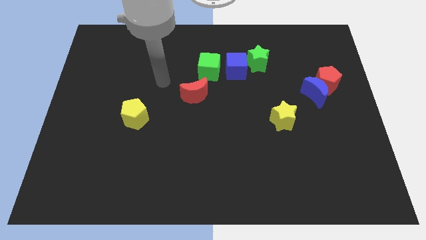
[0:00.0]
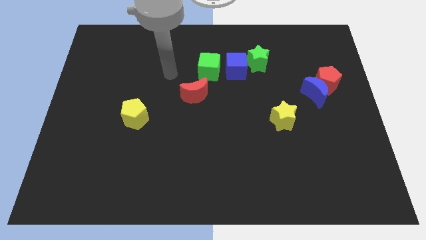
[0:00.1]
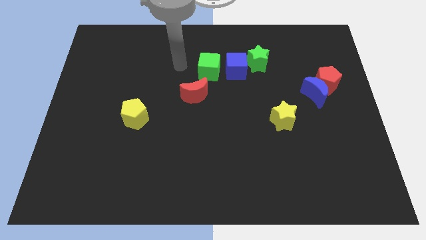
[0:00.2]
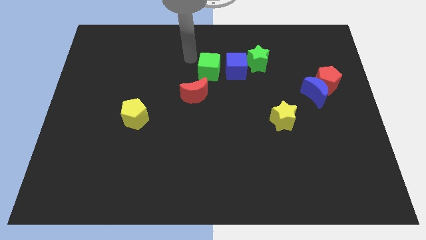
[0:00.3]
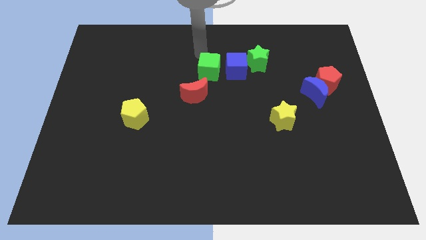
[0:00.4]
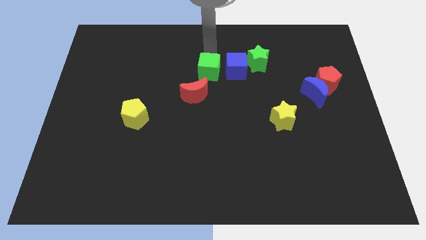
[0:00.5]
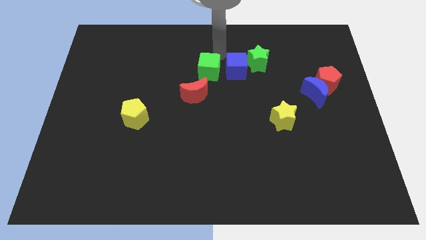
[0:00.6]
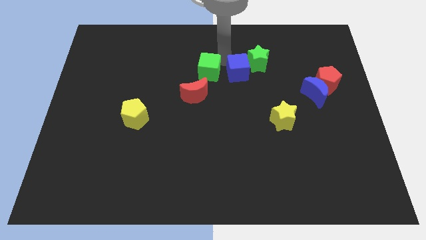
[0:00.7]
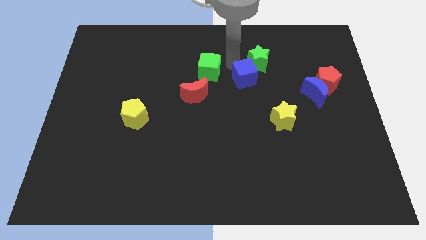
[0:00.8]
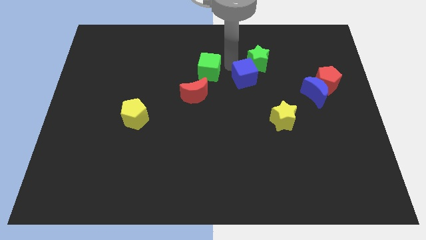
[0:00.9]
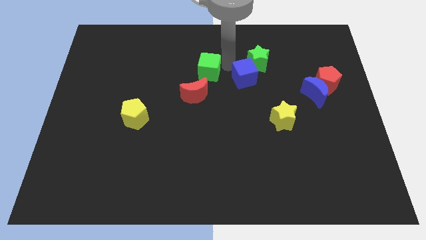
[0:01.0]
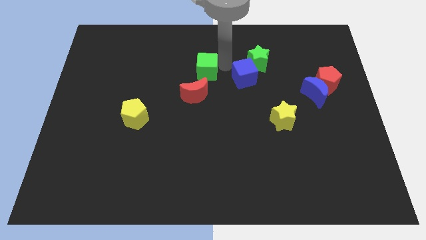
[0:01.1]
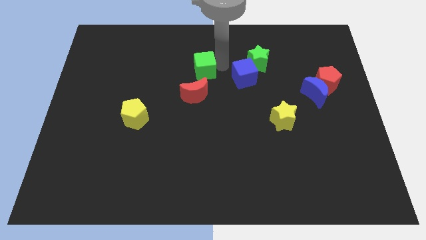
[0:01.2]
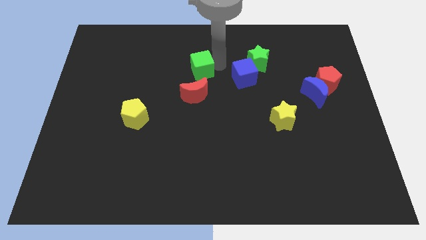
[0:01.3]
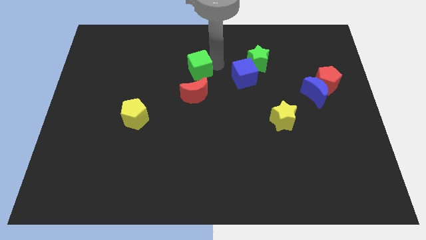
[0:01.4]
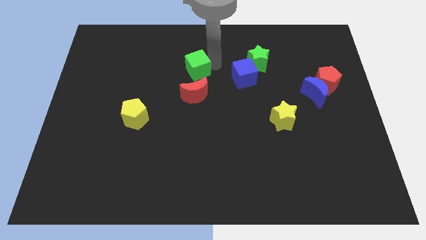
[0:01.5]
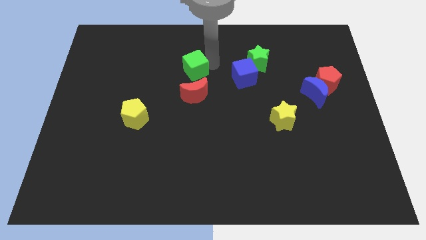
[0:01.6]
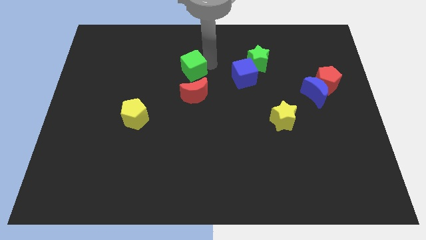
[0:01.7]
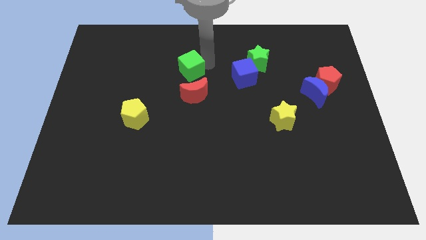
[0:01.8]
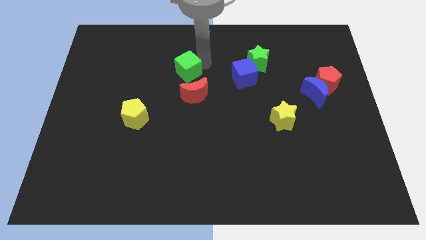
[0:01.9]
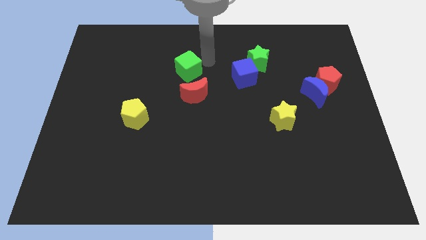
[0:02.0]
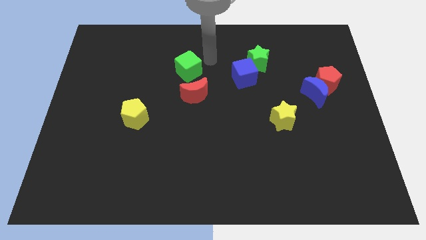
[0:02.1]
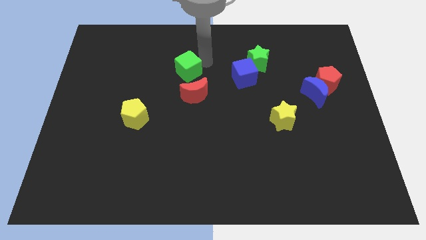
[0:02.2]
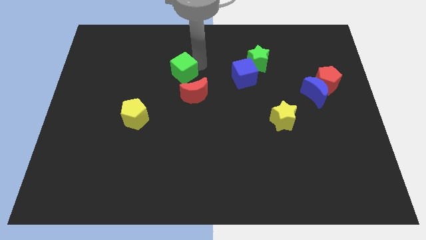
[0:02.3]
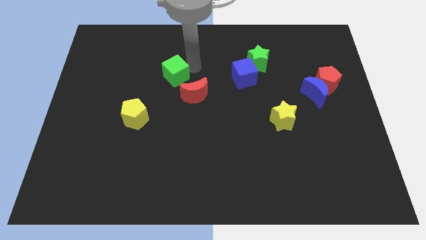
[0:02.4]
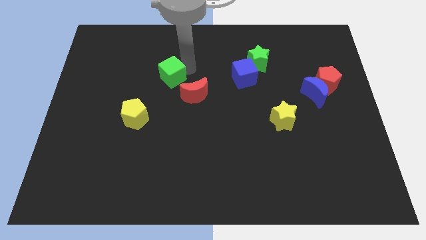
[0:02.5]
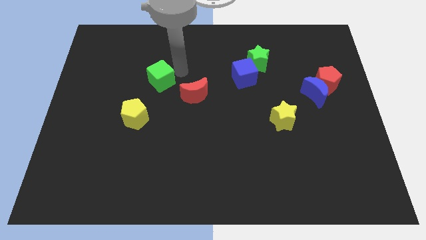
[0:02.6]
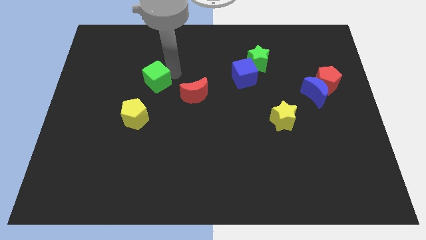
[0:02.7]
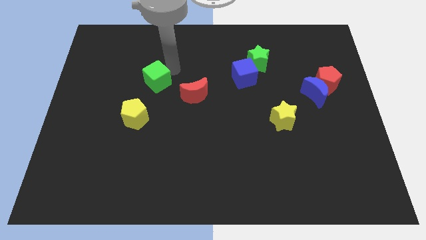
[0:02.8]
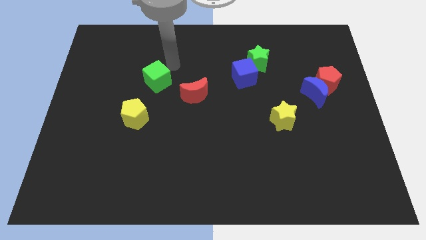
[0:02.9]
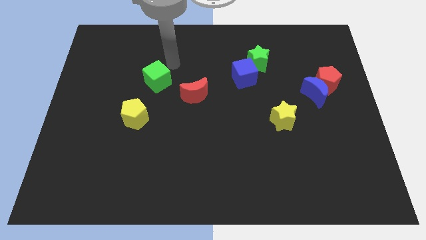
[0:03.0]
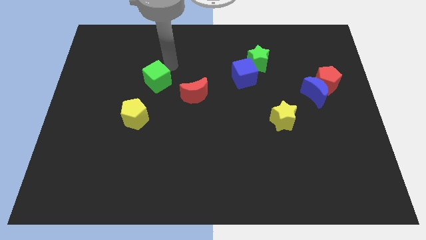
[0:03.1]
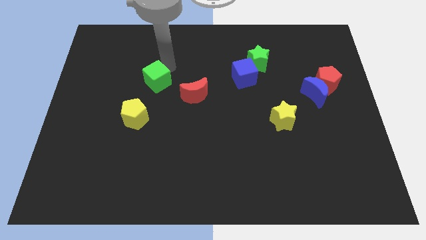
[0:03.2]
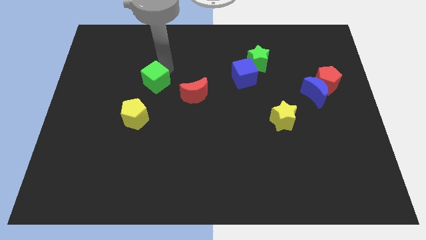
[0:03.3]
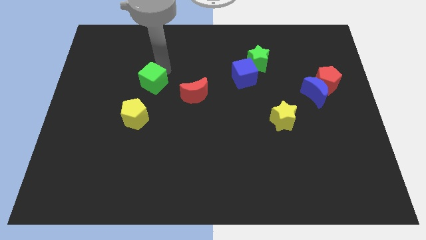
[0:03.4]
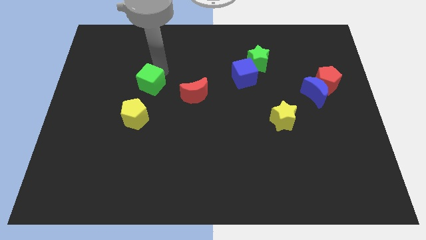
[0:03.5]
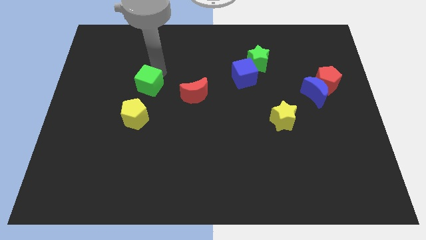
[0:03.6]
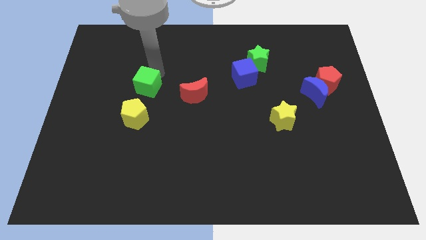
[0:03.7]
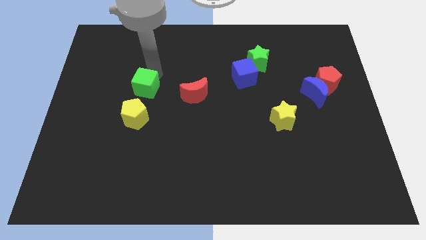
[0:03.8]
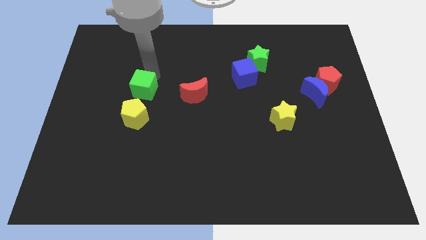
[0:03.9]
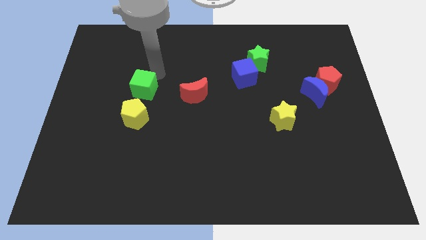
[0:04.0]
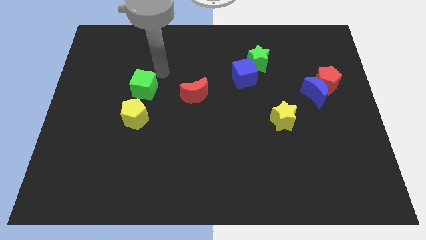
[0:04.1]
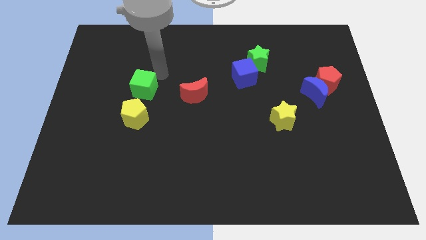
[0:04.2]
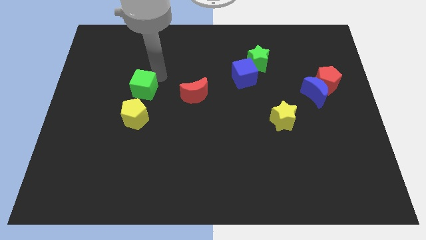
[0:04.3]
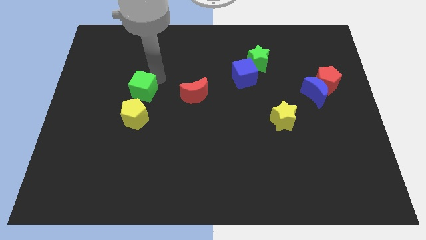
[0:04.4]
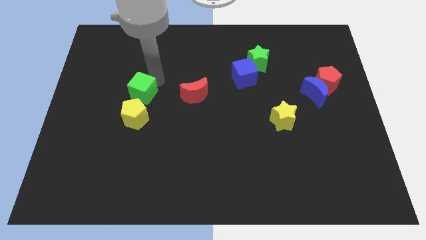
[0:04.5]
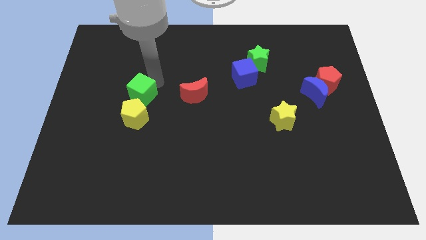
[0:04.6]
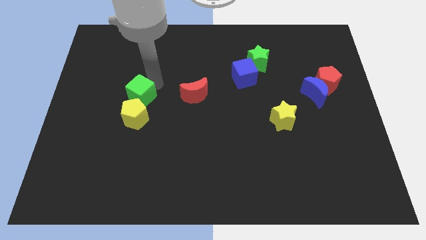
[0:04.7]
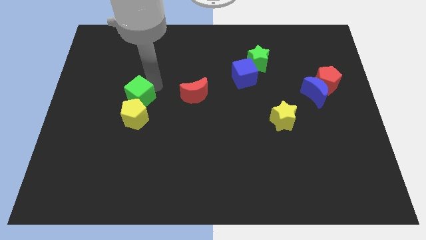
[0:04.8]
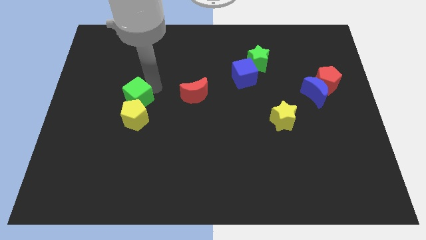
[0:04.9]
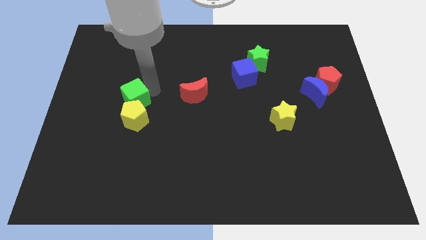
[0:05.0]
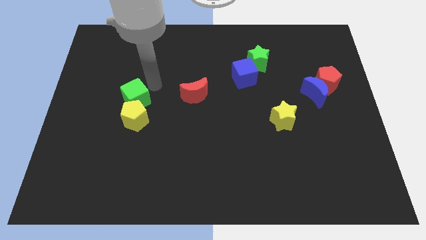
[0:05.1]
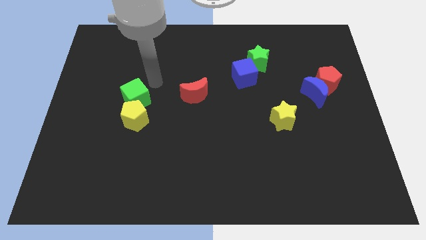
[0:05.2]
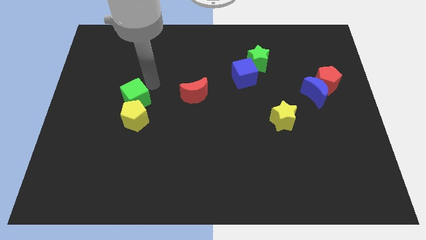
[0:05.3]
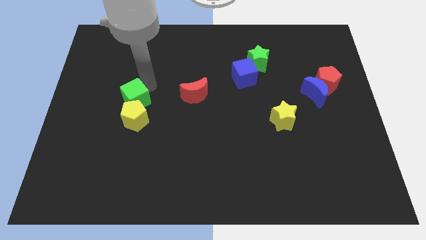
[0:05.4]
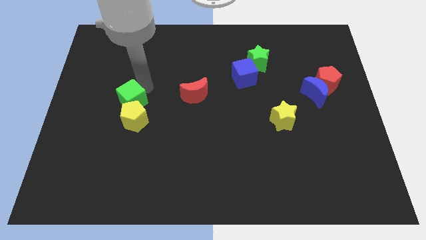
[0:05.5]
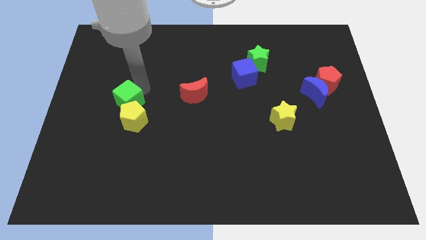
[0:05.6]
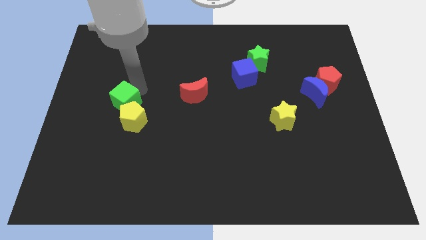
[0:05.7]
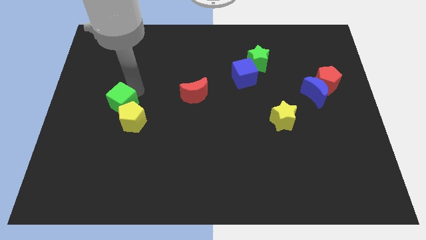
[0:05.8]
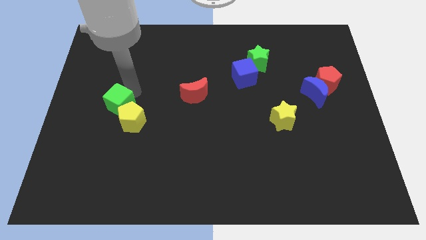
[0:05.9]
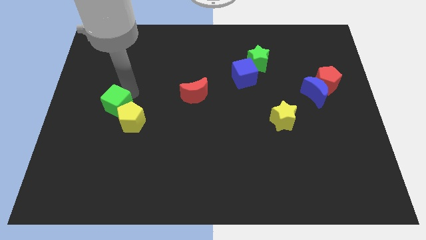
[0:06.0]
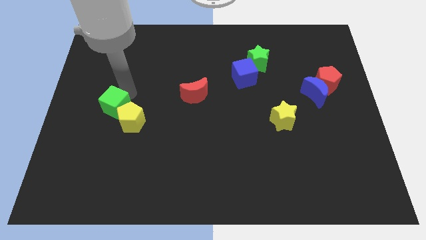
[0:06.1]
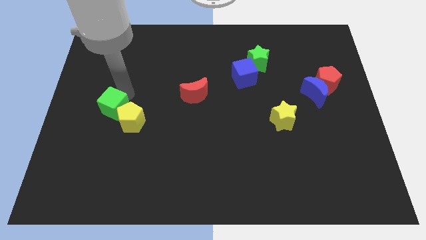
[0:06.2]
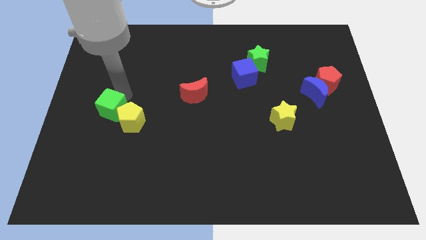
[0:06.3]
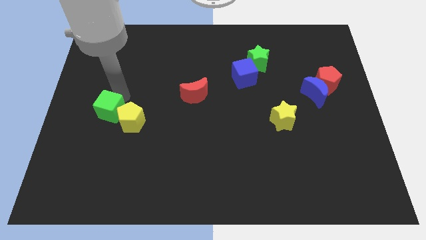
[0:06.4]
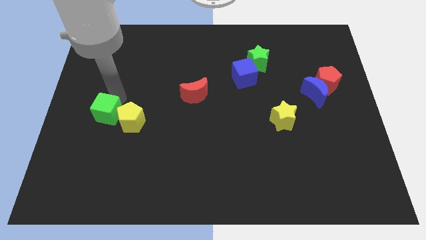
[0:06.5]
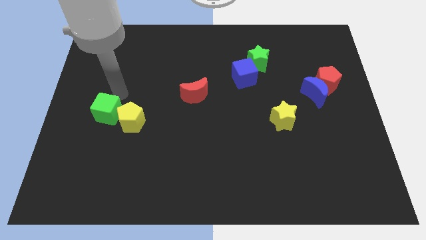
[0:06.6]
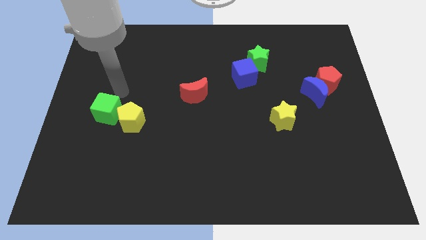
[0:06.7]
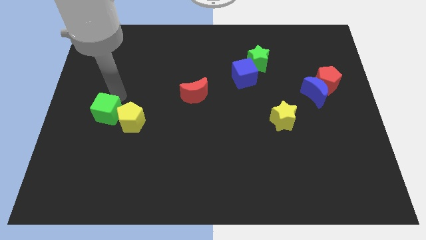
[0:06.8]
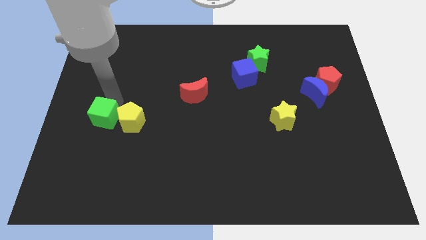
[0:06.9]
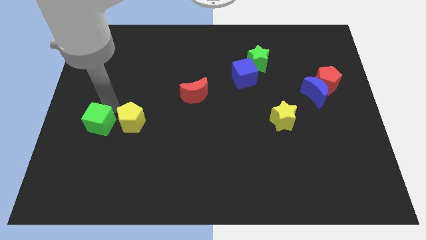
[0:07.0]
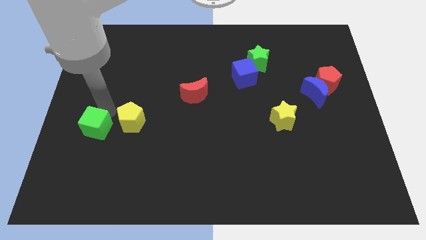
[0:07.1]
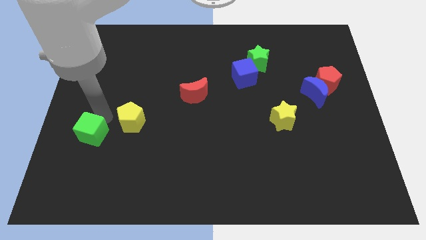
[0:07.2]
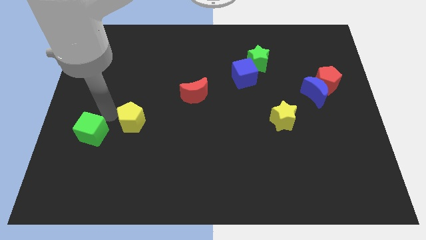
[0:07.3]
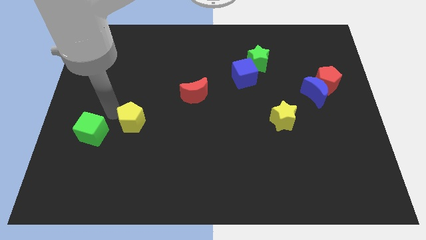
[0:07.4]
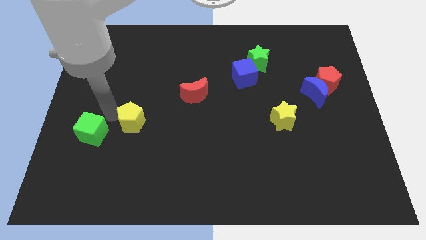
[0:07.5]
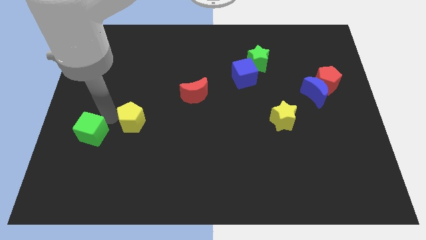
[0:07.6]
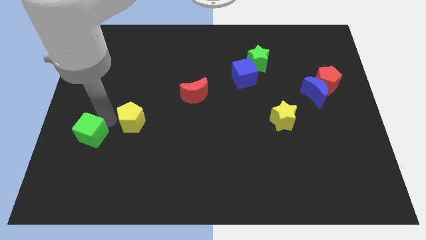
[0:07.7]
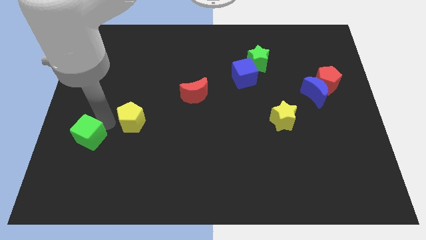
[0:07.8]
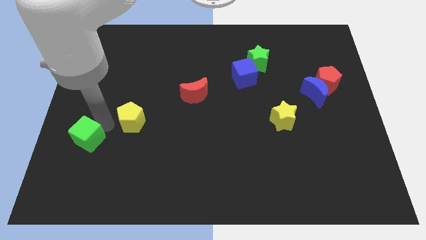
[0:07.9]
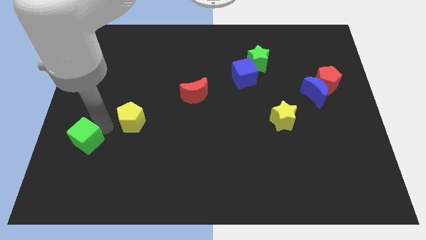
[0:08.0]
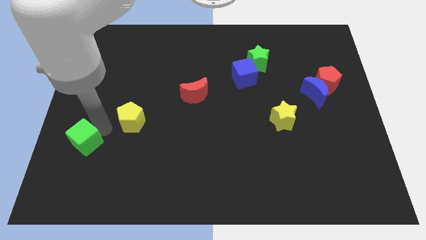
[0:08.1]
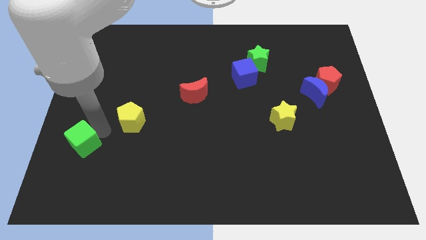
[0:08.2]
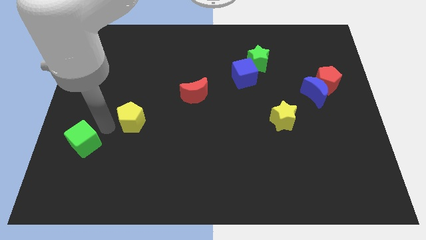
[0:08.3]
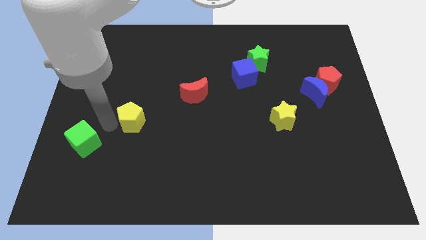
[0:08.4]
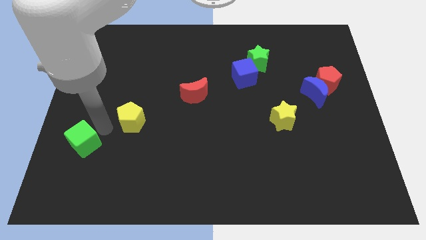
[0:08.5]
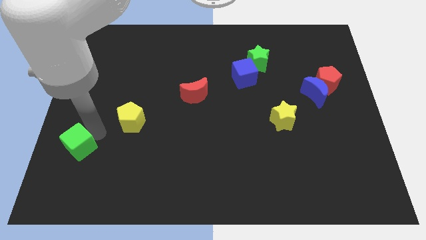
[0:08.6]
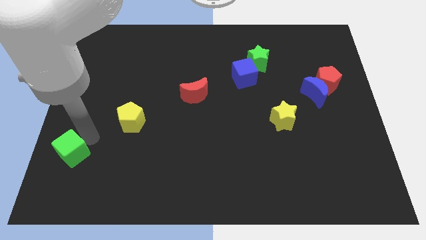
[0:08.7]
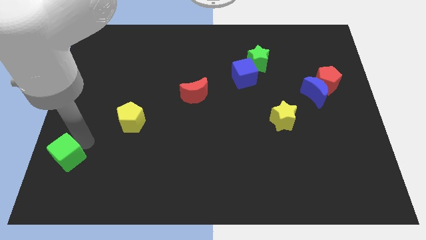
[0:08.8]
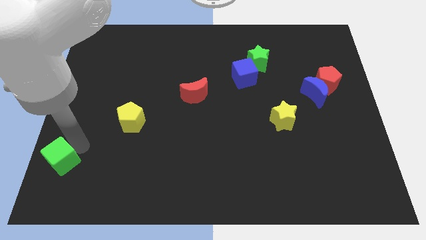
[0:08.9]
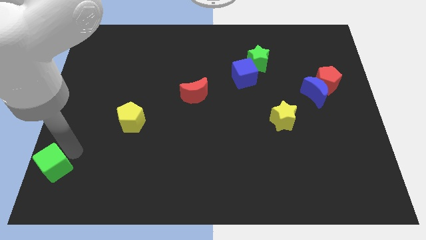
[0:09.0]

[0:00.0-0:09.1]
slide the green cube to the bottom left corner
